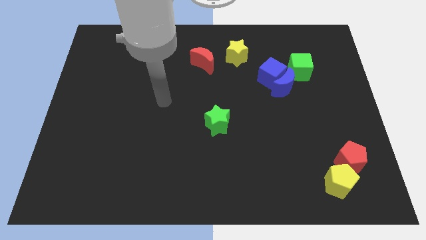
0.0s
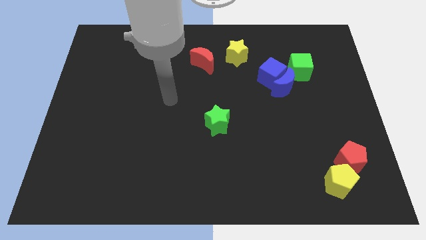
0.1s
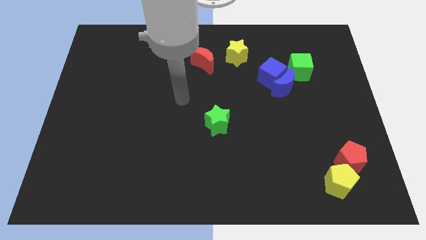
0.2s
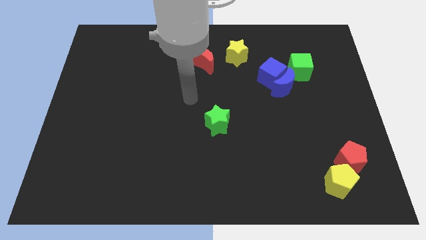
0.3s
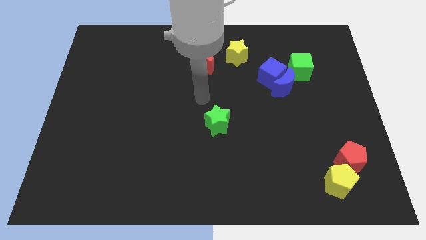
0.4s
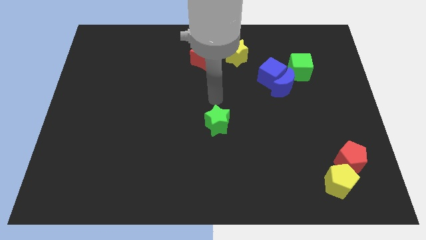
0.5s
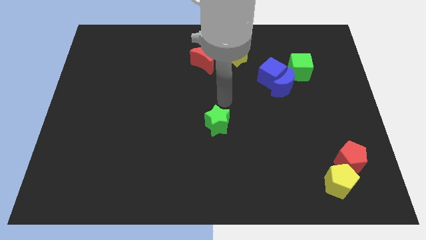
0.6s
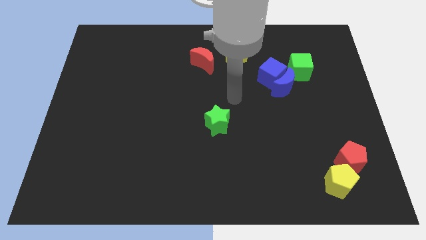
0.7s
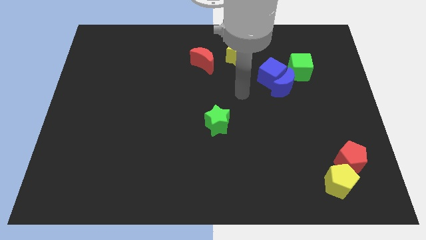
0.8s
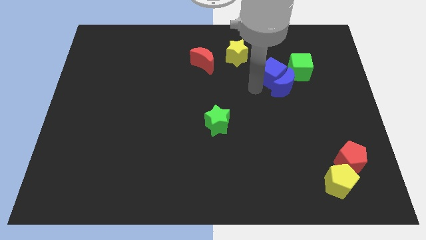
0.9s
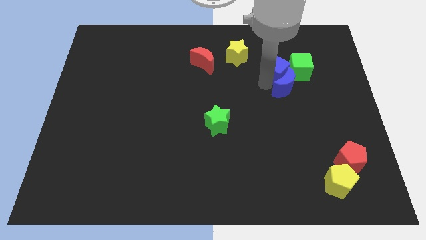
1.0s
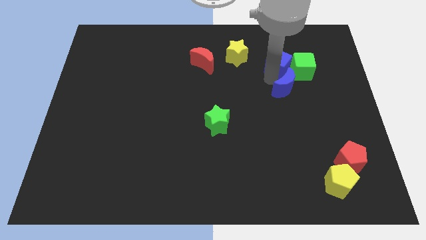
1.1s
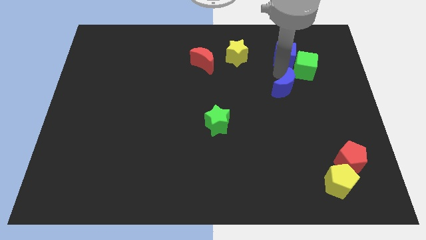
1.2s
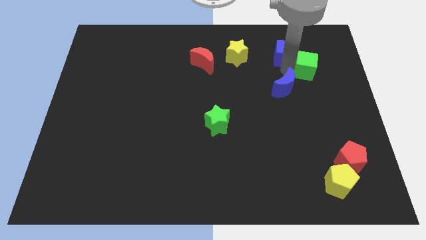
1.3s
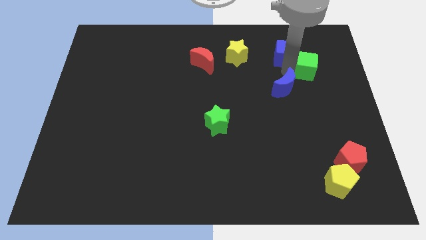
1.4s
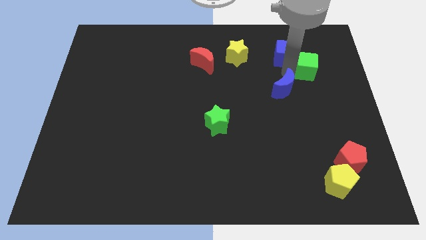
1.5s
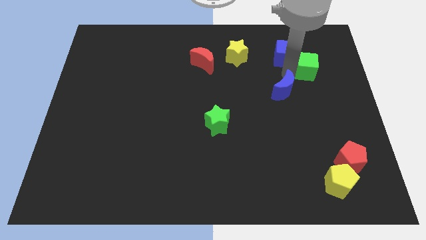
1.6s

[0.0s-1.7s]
pull the blue moon apart from the blue cube and green cube

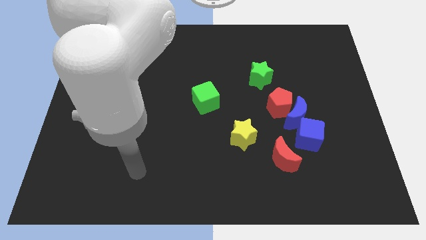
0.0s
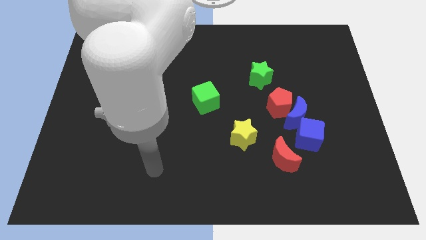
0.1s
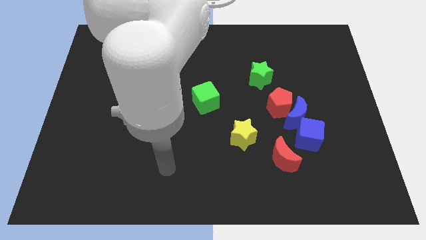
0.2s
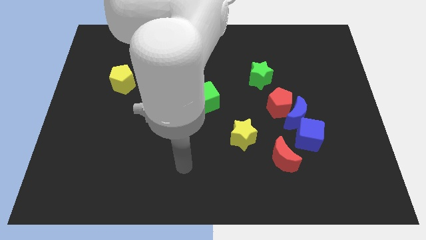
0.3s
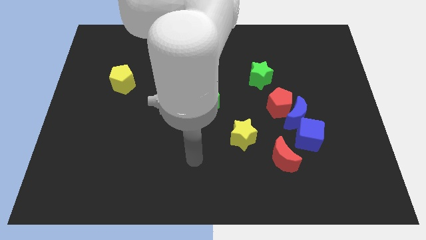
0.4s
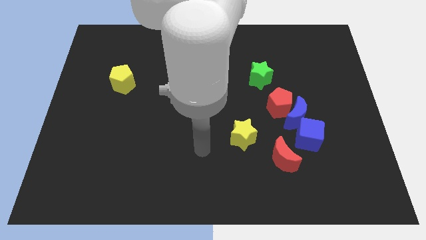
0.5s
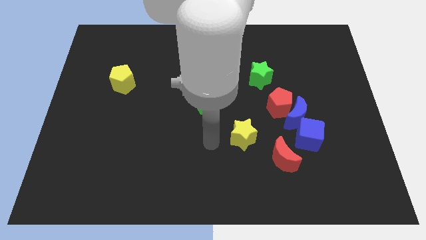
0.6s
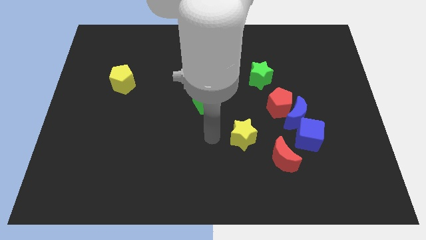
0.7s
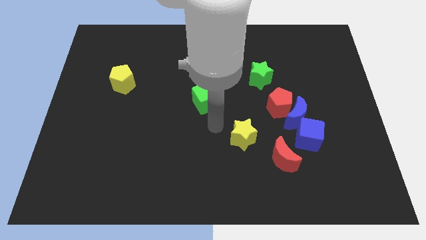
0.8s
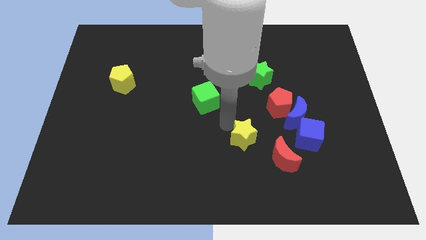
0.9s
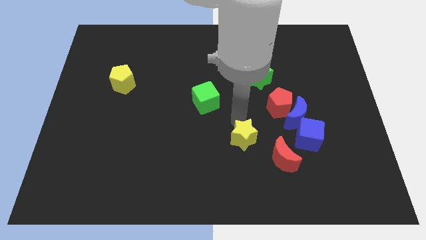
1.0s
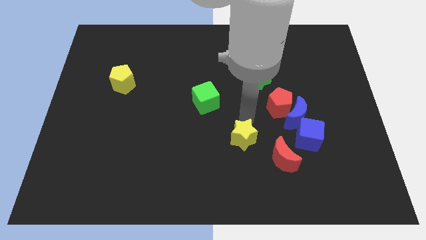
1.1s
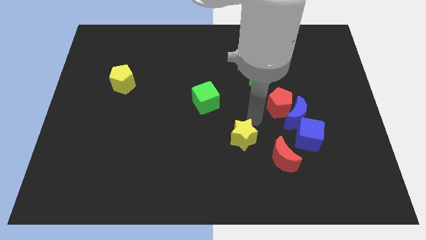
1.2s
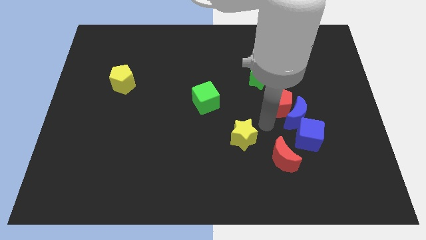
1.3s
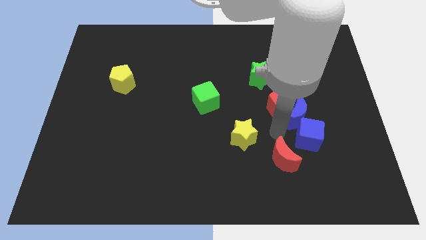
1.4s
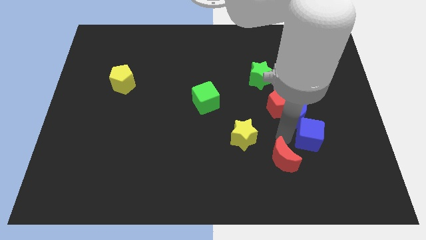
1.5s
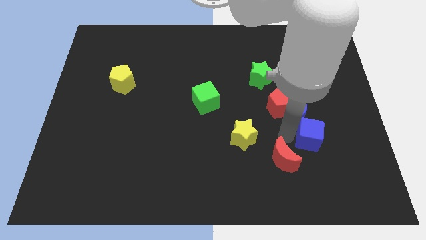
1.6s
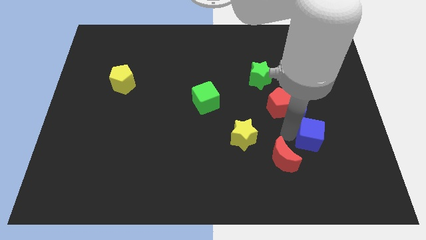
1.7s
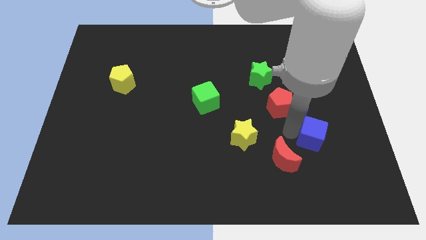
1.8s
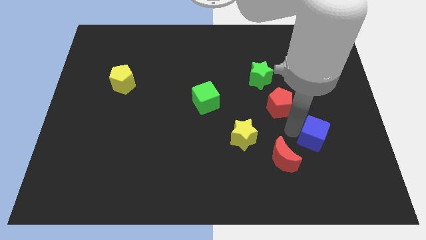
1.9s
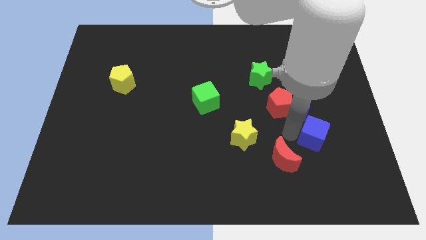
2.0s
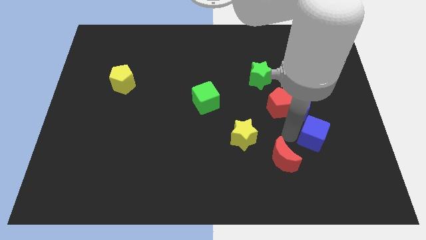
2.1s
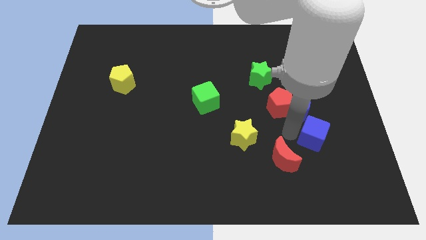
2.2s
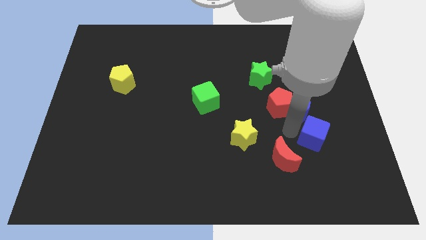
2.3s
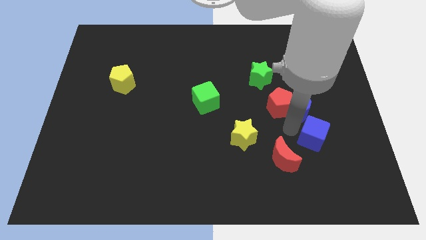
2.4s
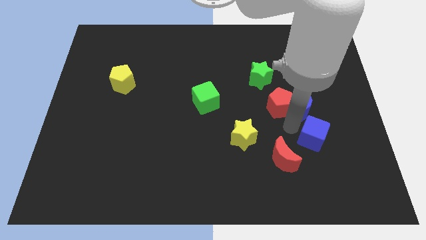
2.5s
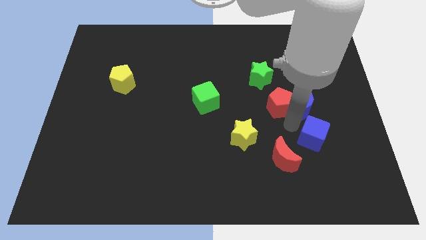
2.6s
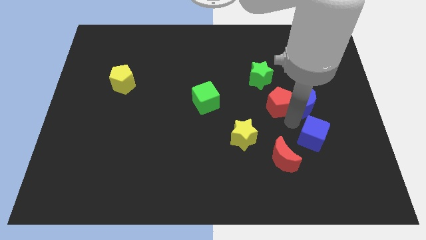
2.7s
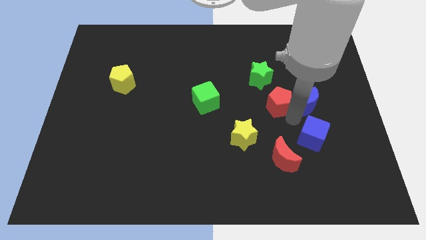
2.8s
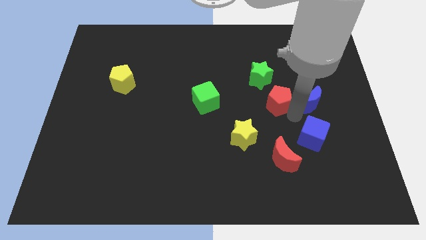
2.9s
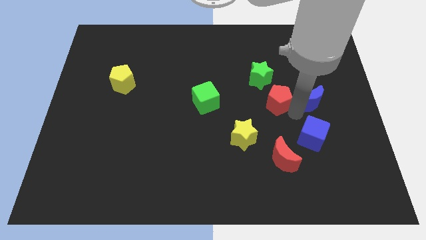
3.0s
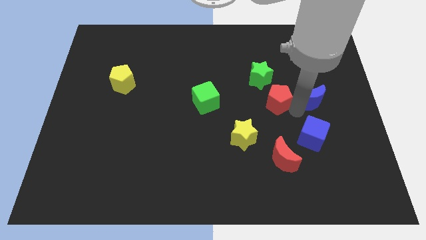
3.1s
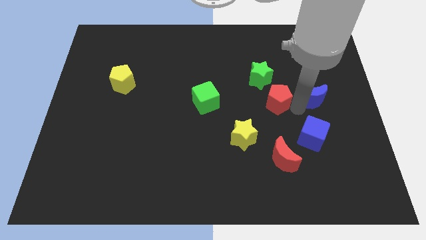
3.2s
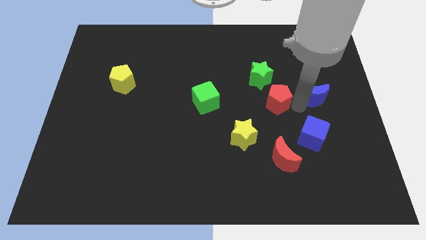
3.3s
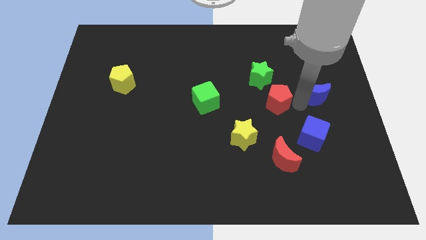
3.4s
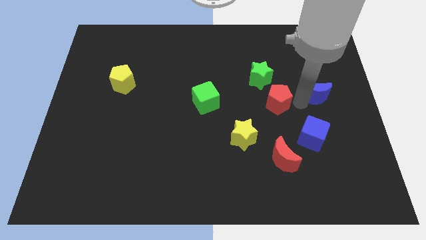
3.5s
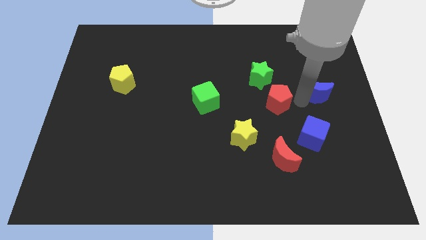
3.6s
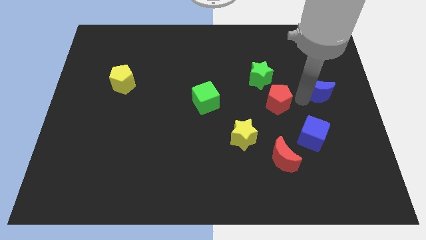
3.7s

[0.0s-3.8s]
move the blue moon away from the red pentagon and blue cube

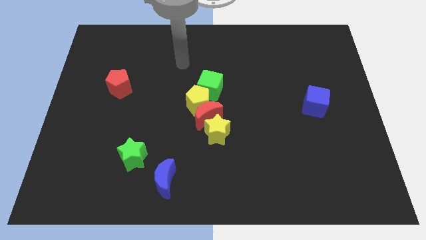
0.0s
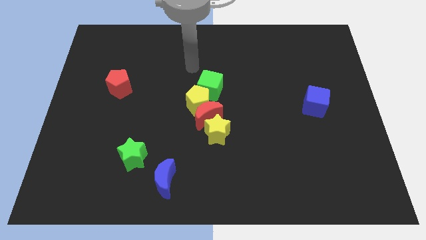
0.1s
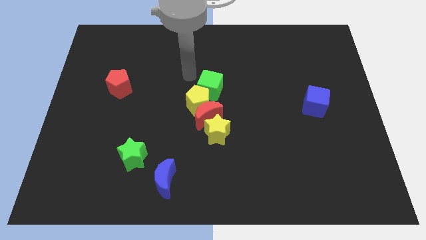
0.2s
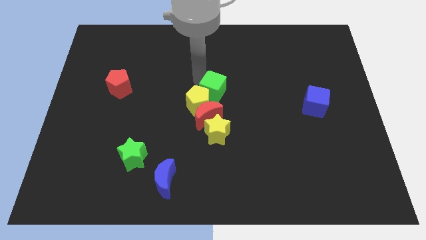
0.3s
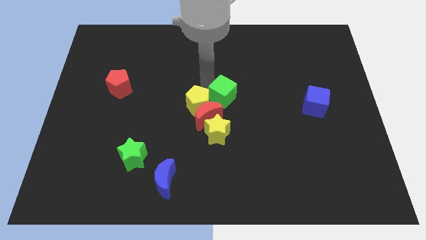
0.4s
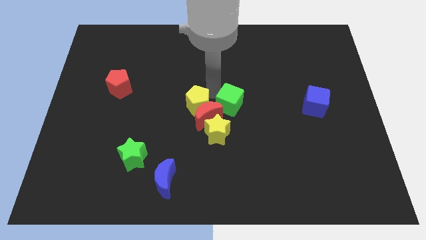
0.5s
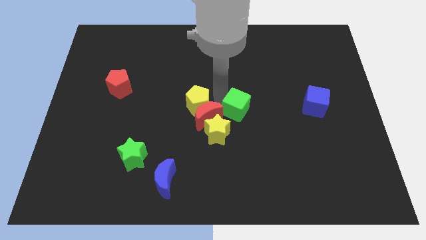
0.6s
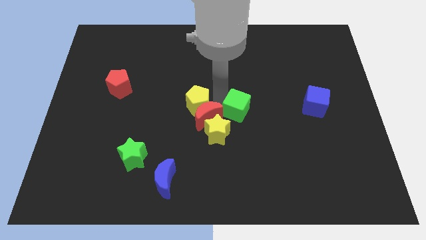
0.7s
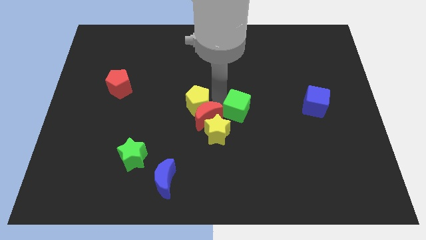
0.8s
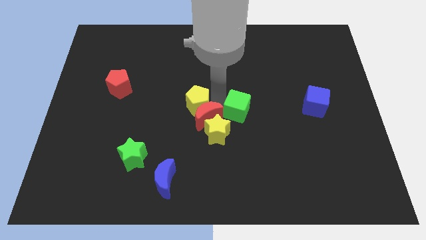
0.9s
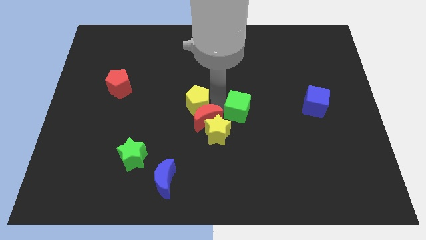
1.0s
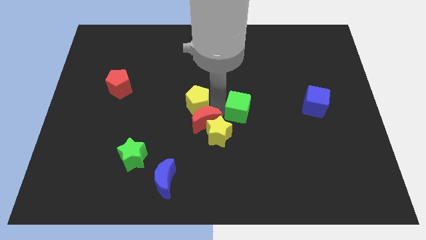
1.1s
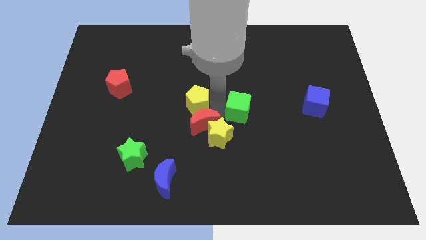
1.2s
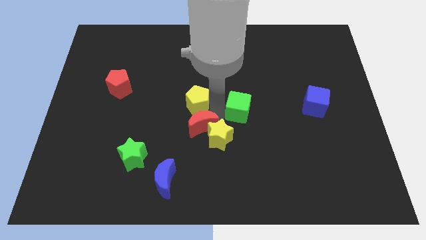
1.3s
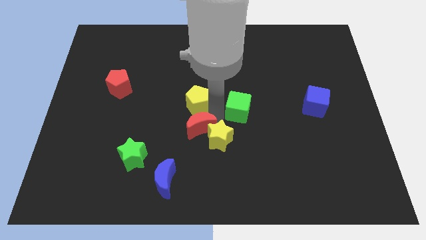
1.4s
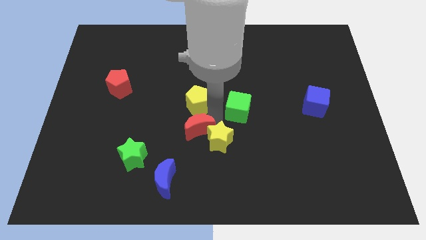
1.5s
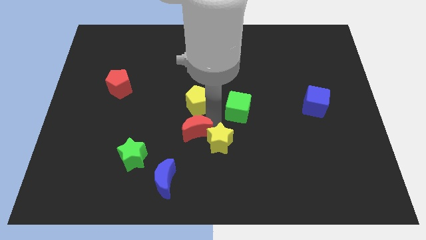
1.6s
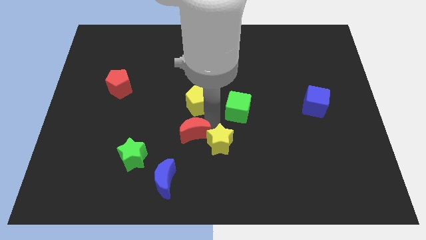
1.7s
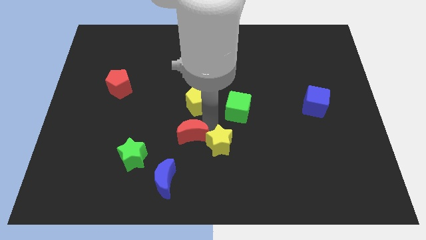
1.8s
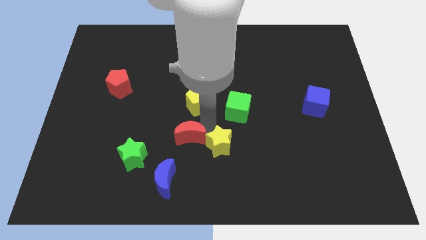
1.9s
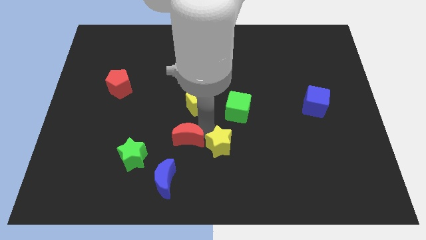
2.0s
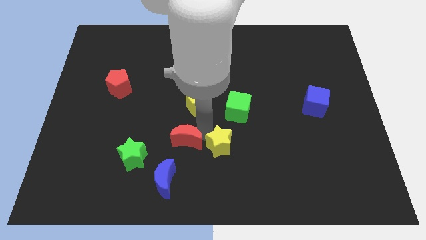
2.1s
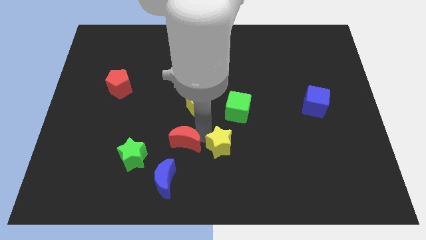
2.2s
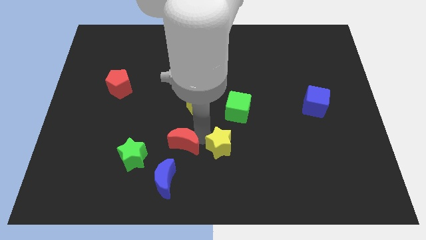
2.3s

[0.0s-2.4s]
move the red moon away from the yellow pentagon, yellow star, and green cube

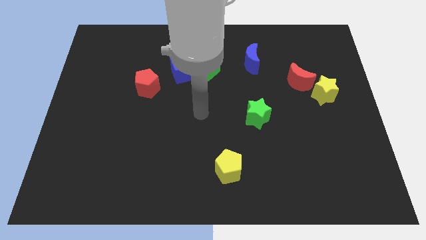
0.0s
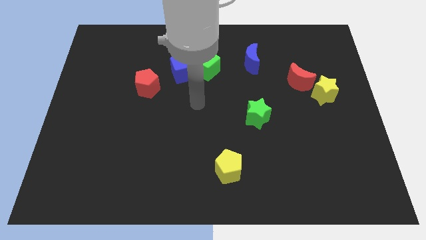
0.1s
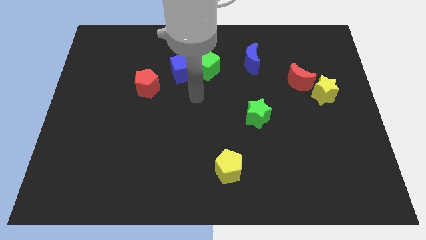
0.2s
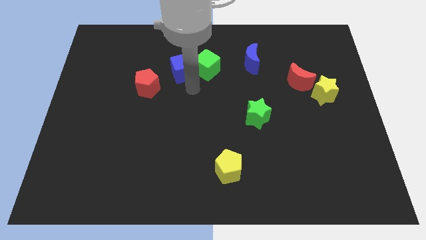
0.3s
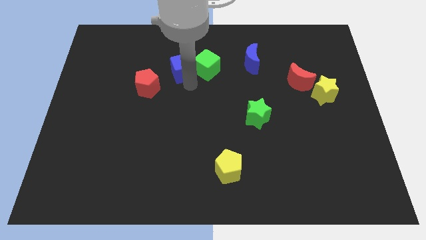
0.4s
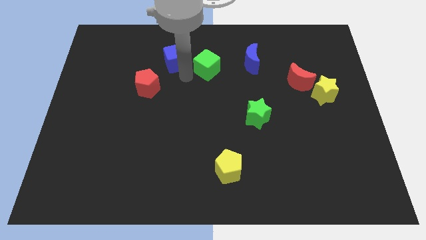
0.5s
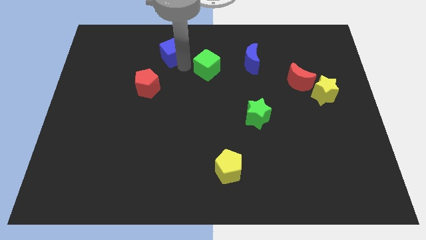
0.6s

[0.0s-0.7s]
separate the green cube from the blue cube

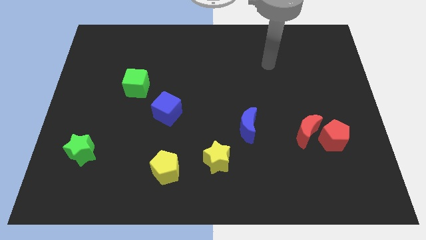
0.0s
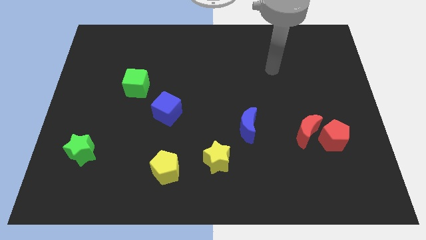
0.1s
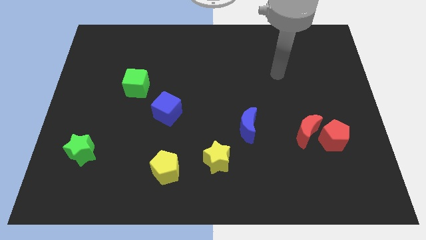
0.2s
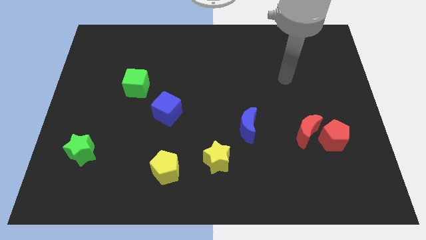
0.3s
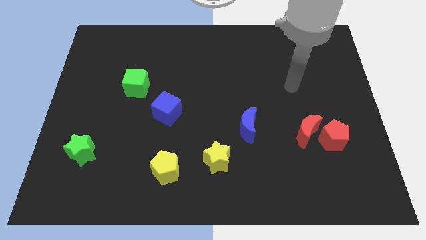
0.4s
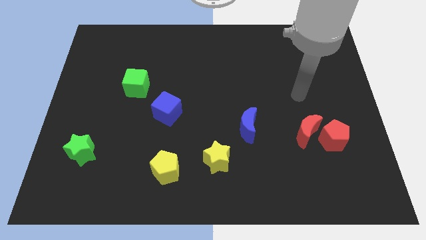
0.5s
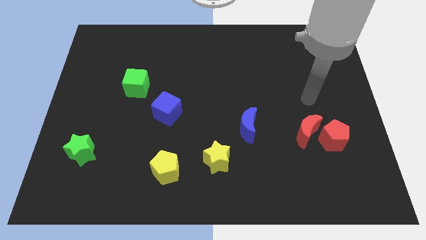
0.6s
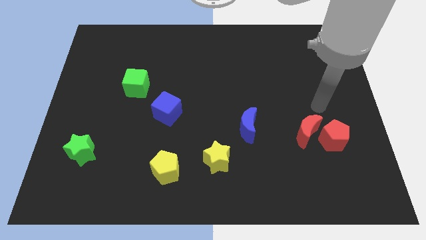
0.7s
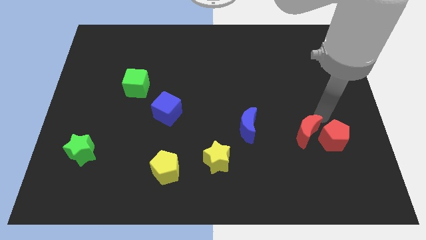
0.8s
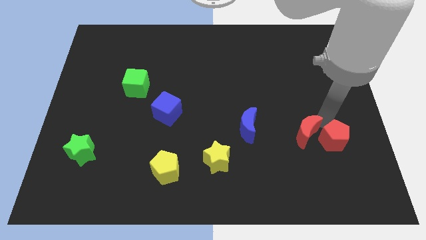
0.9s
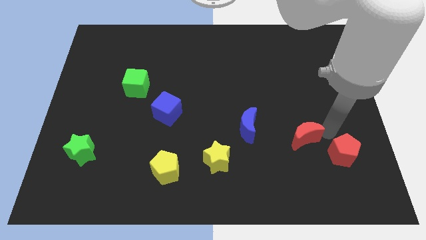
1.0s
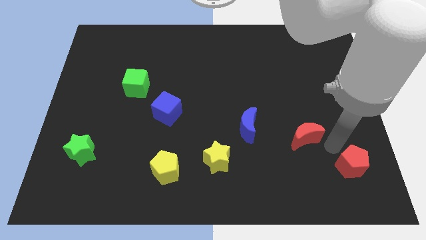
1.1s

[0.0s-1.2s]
pull the red moon apart from the red pentagon
